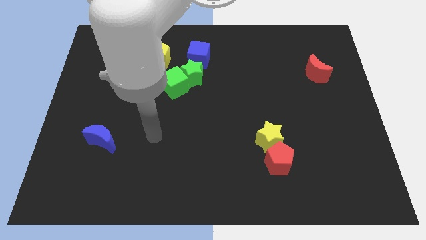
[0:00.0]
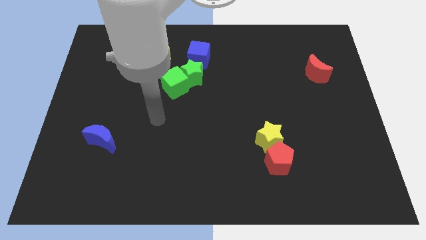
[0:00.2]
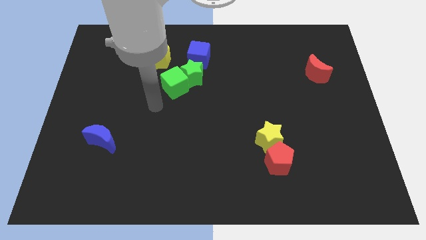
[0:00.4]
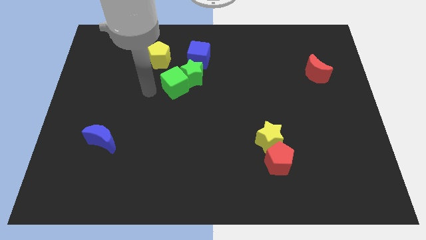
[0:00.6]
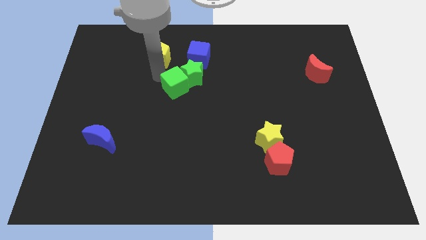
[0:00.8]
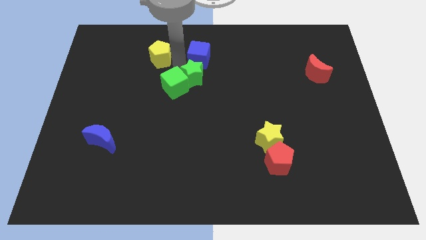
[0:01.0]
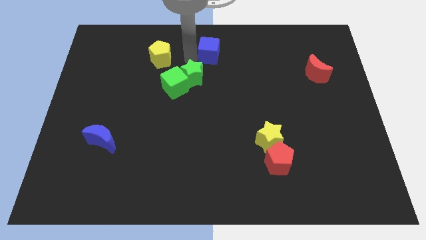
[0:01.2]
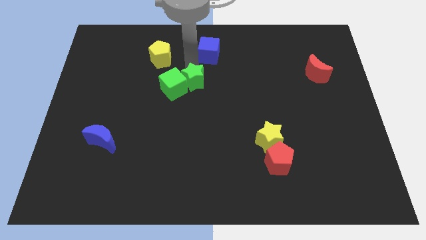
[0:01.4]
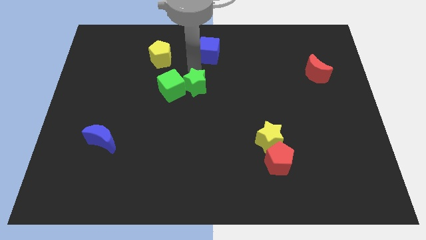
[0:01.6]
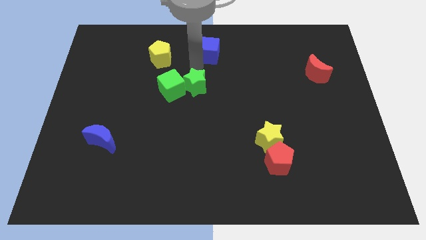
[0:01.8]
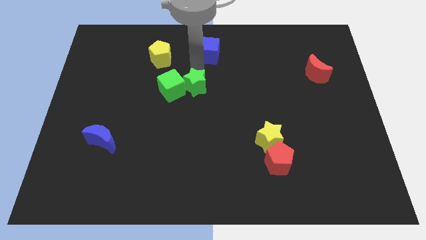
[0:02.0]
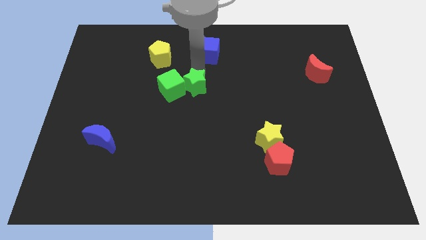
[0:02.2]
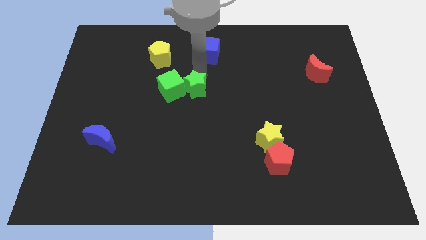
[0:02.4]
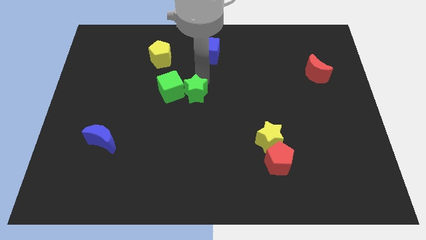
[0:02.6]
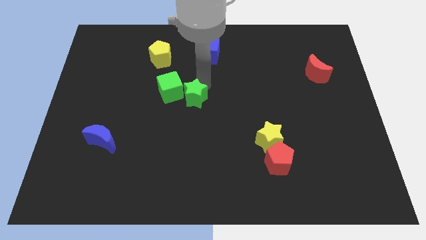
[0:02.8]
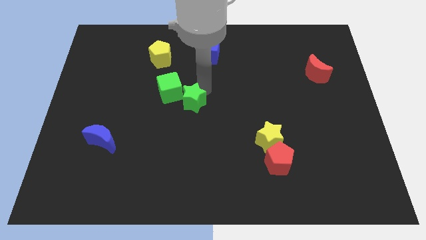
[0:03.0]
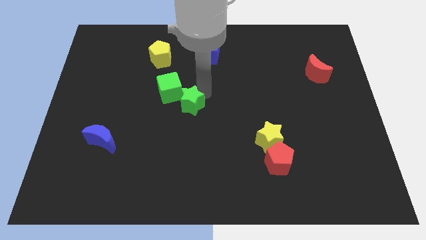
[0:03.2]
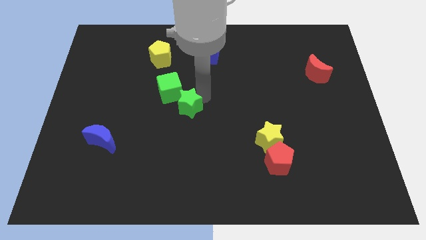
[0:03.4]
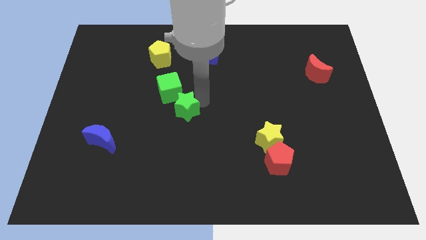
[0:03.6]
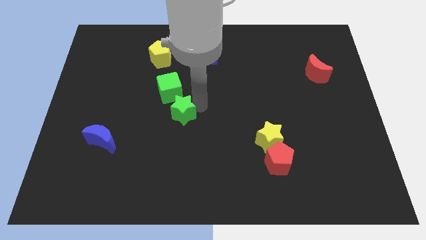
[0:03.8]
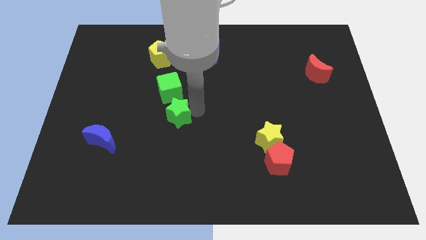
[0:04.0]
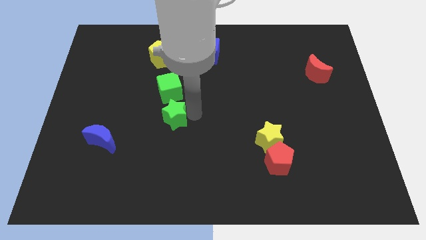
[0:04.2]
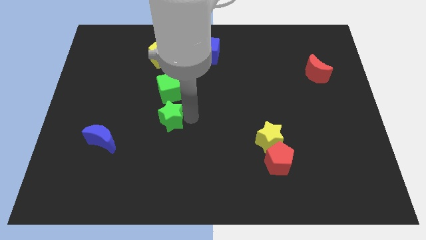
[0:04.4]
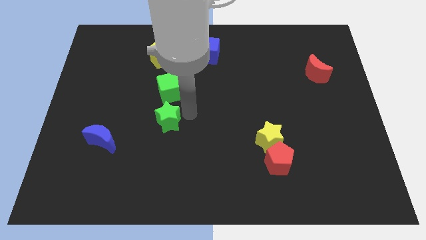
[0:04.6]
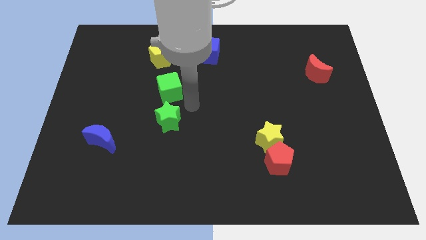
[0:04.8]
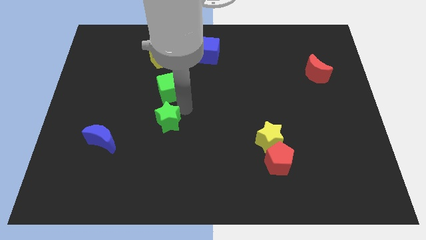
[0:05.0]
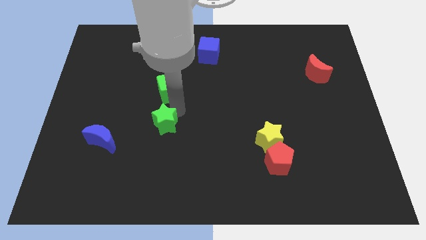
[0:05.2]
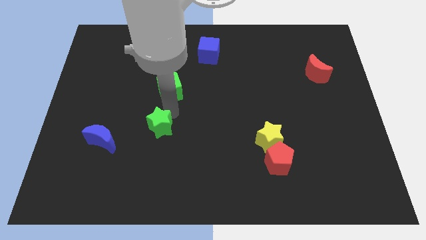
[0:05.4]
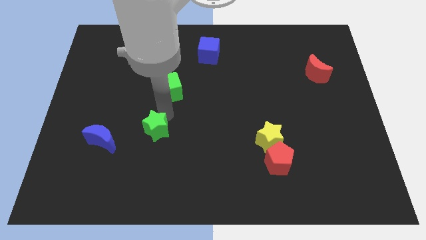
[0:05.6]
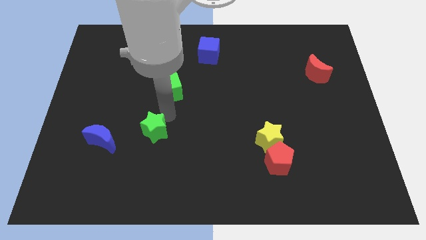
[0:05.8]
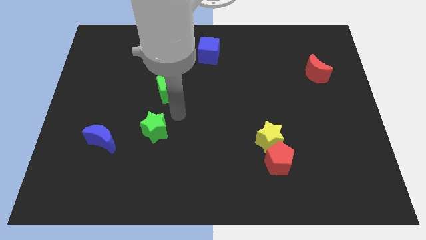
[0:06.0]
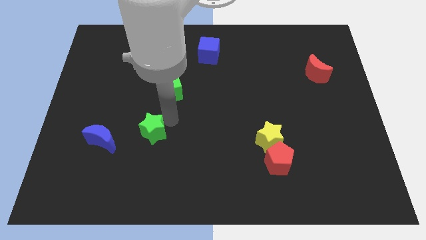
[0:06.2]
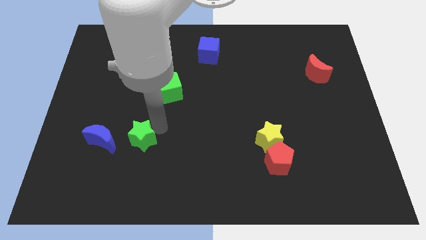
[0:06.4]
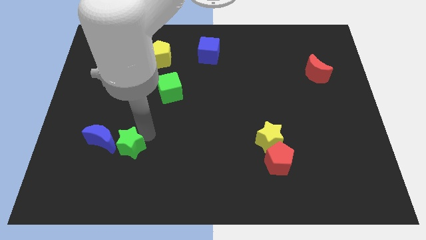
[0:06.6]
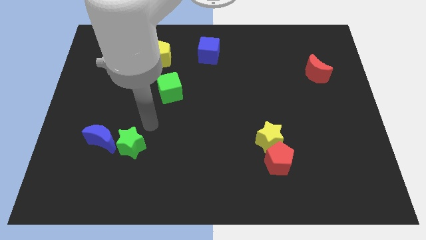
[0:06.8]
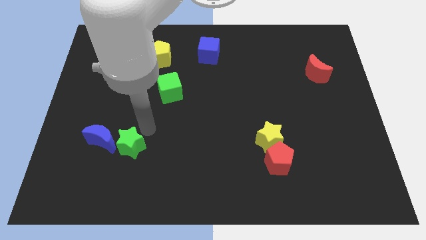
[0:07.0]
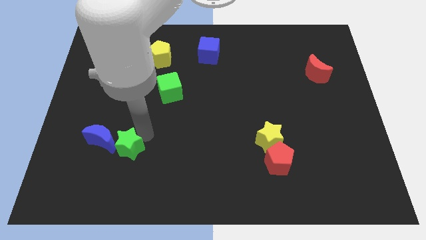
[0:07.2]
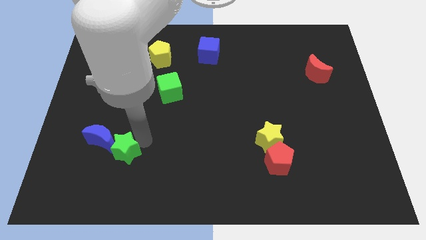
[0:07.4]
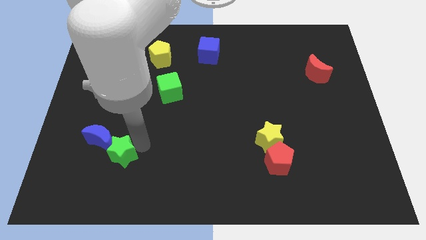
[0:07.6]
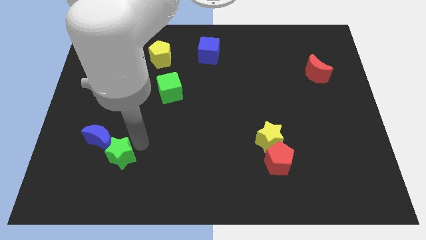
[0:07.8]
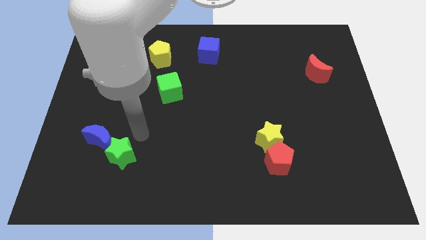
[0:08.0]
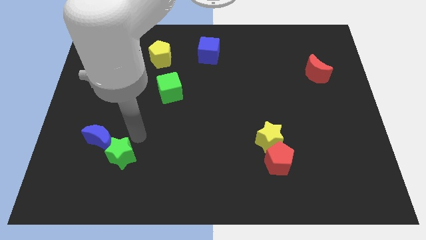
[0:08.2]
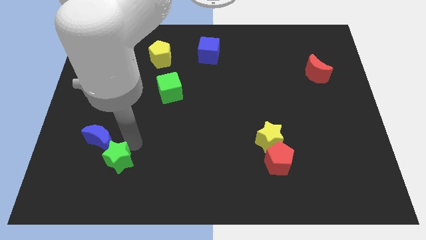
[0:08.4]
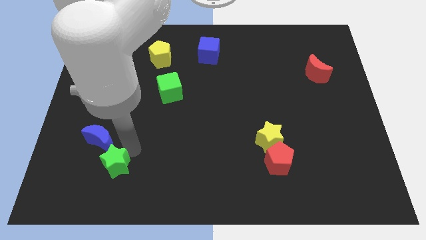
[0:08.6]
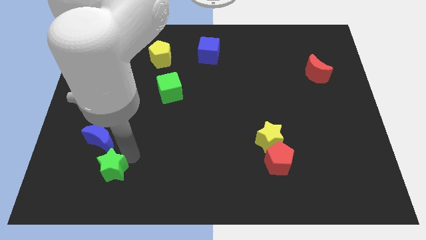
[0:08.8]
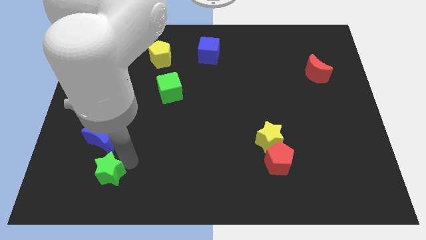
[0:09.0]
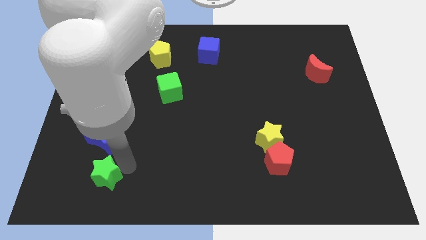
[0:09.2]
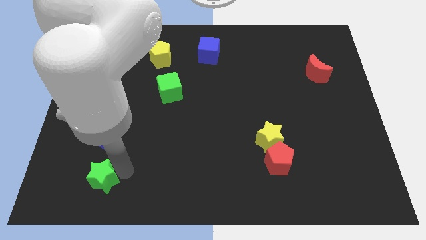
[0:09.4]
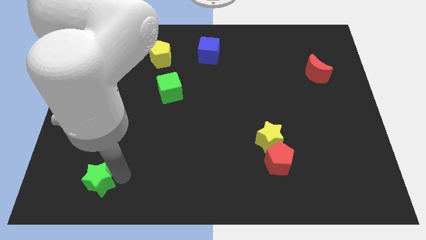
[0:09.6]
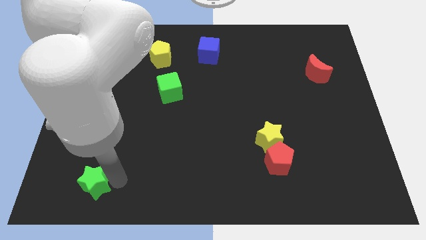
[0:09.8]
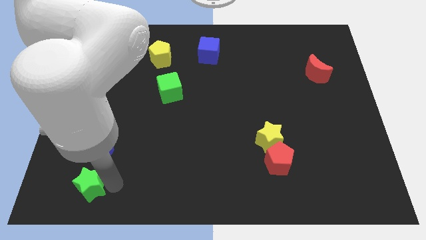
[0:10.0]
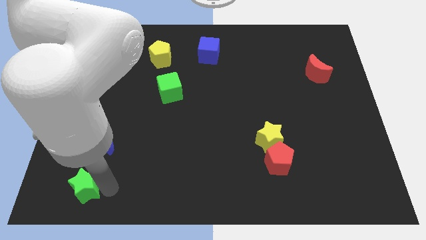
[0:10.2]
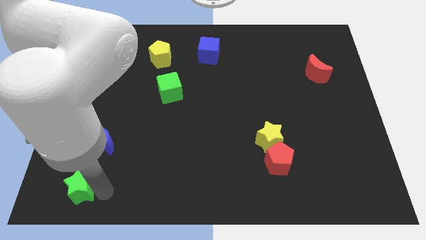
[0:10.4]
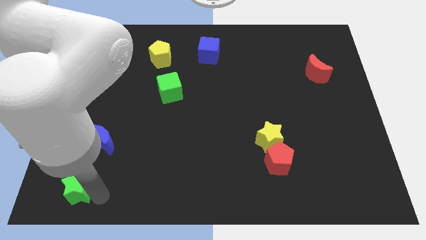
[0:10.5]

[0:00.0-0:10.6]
slide the green star to the bottom left of the board

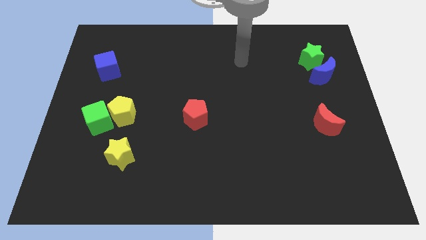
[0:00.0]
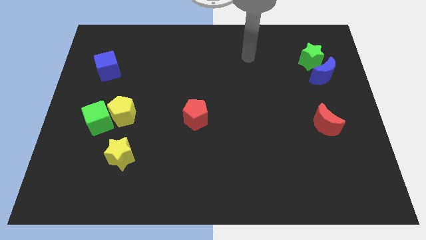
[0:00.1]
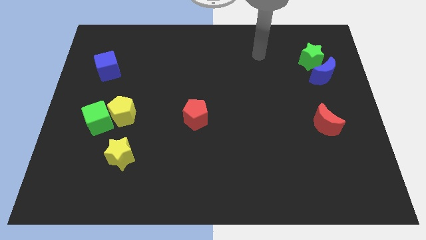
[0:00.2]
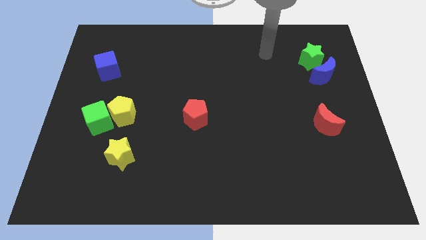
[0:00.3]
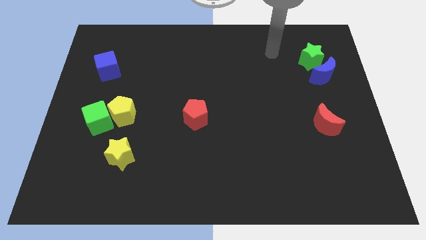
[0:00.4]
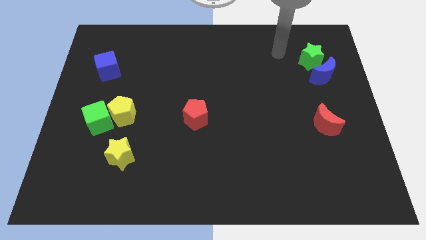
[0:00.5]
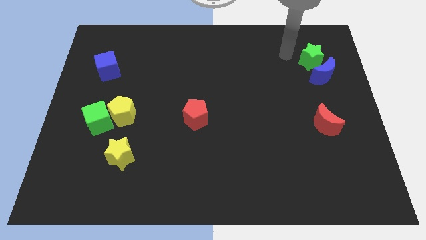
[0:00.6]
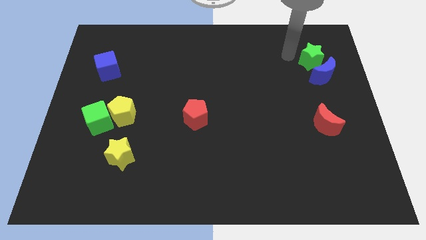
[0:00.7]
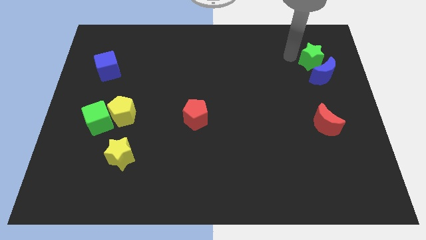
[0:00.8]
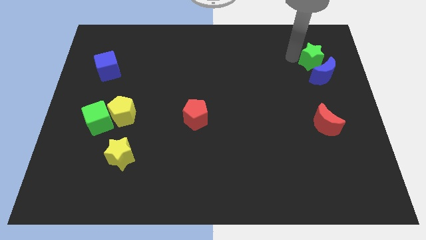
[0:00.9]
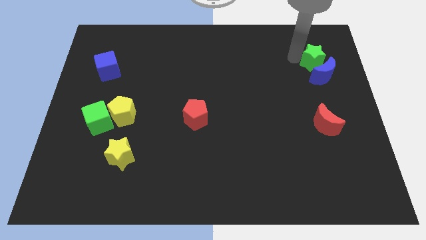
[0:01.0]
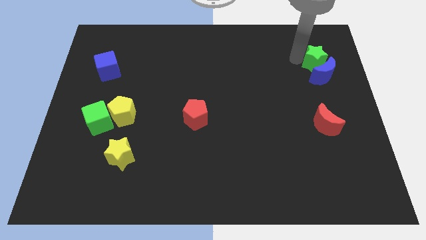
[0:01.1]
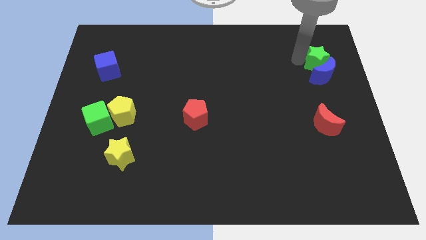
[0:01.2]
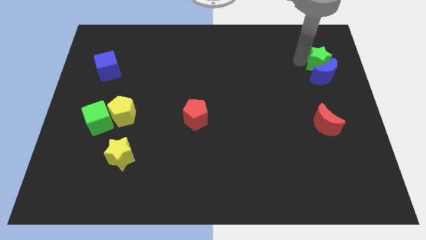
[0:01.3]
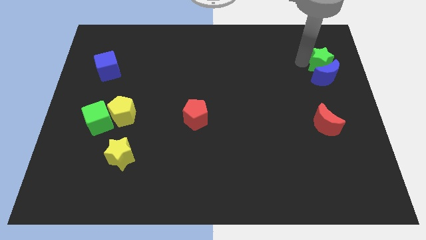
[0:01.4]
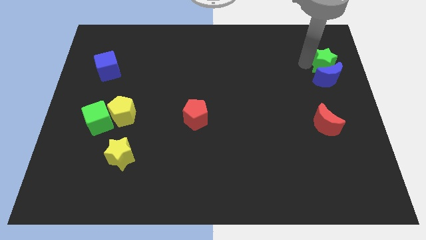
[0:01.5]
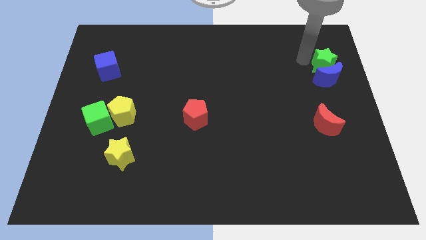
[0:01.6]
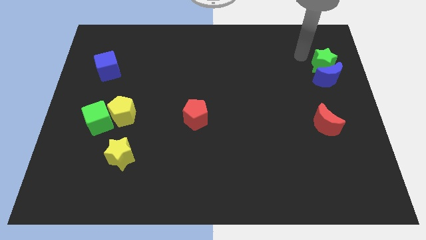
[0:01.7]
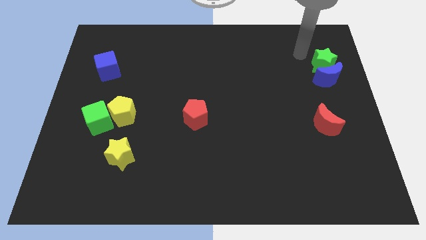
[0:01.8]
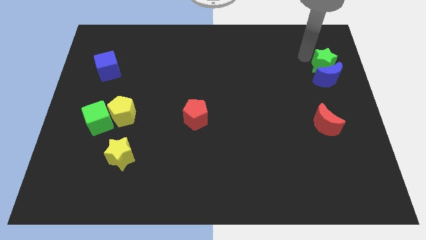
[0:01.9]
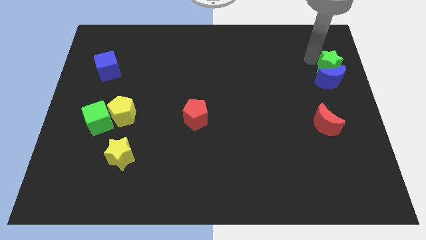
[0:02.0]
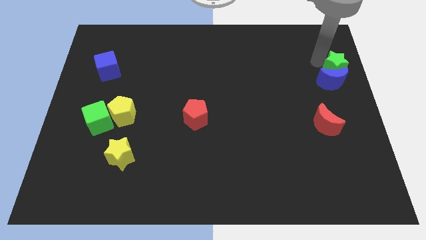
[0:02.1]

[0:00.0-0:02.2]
put the green star to the right side of the board

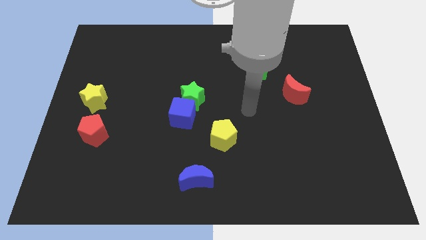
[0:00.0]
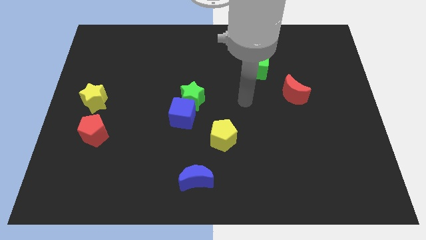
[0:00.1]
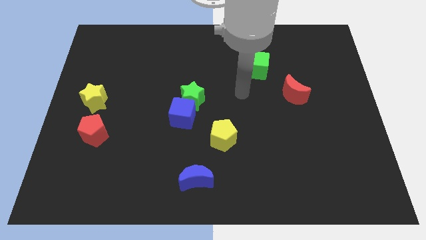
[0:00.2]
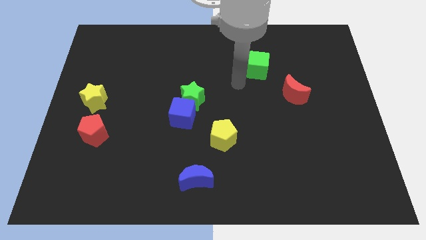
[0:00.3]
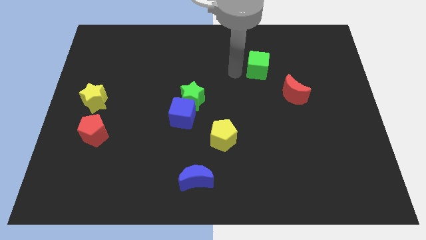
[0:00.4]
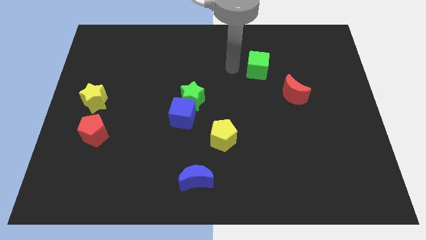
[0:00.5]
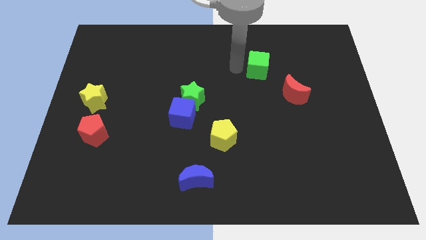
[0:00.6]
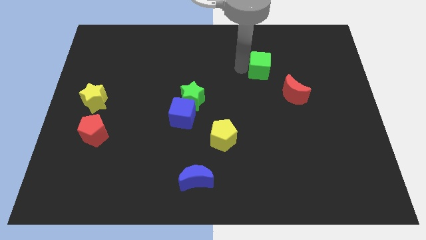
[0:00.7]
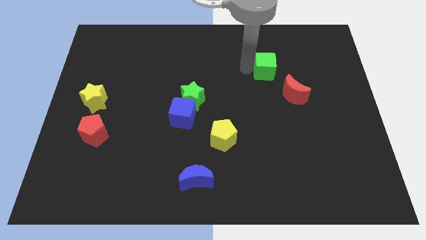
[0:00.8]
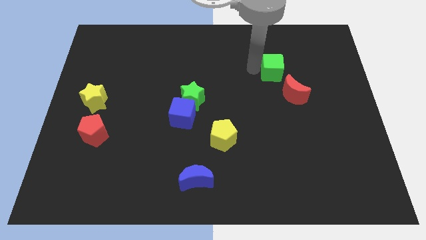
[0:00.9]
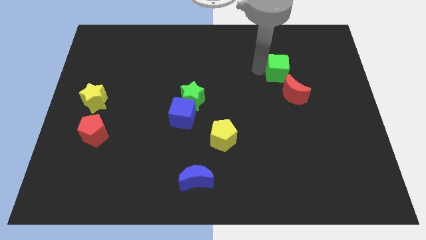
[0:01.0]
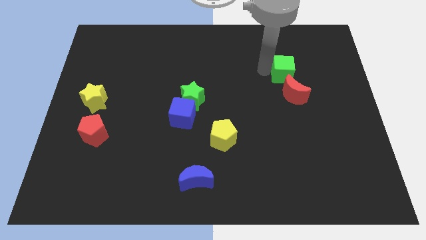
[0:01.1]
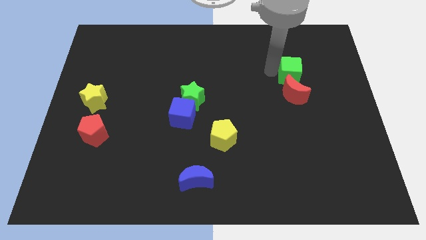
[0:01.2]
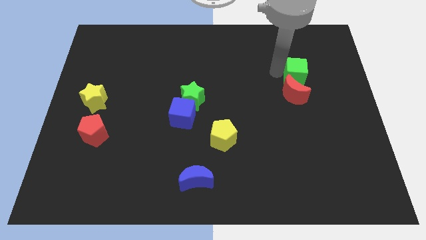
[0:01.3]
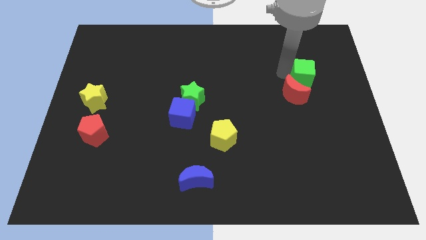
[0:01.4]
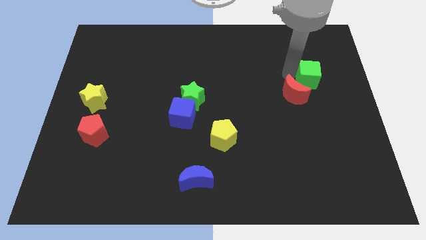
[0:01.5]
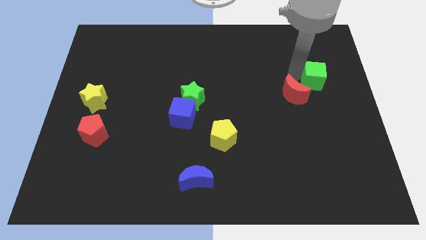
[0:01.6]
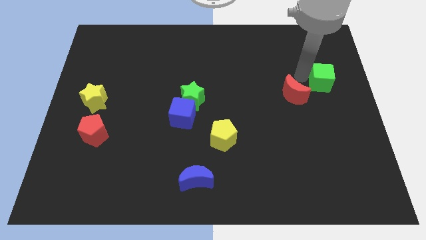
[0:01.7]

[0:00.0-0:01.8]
slide the green cube to the center right
